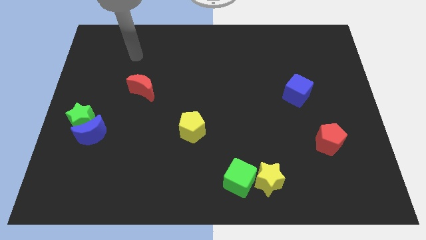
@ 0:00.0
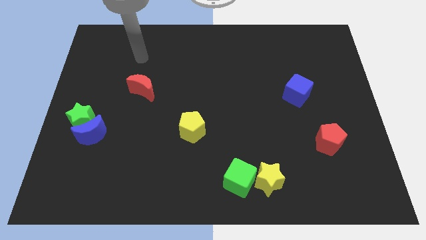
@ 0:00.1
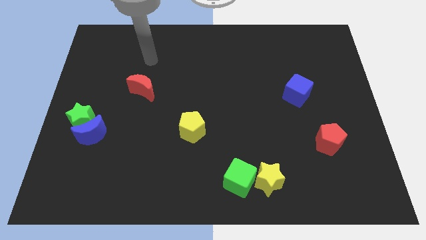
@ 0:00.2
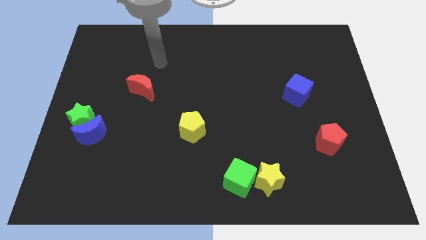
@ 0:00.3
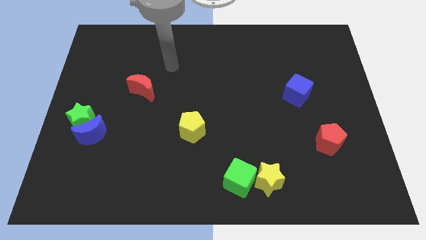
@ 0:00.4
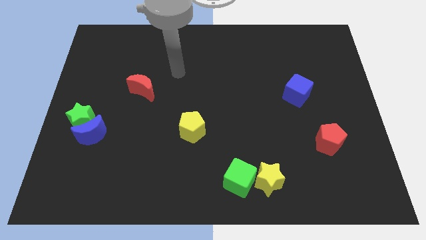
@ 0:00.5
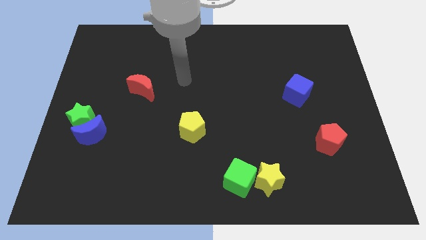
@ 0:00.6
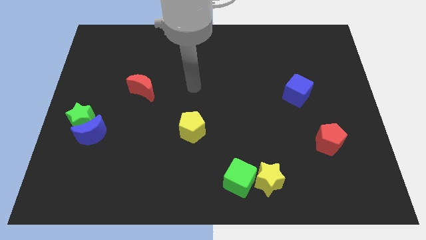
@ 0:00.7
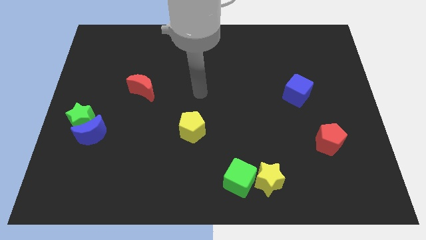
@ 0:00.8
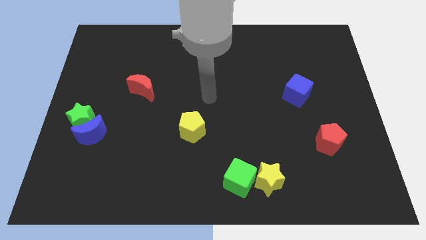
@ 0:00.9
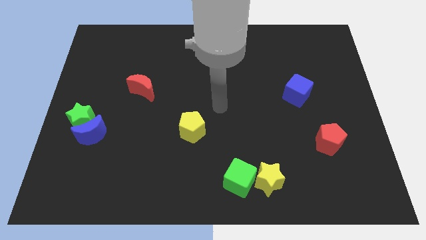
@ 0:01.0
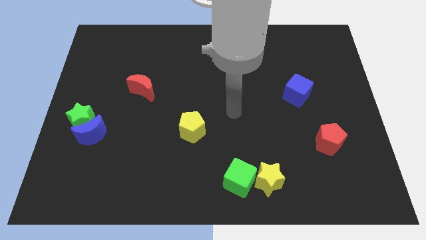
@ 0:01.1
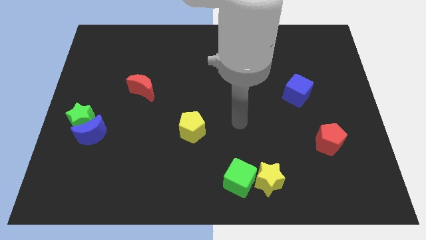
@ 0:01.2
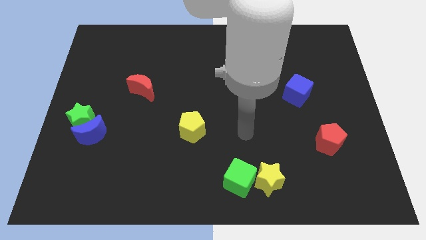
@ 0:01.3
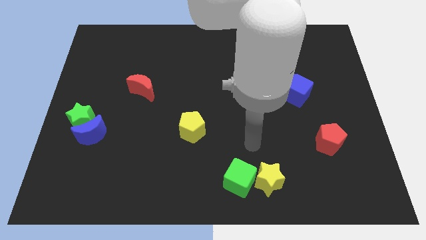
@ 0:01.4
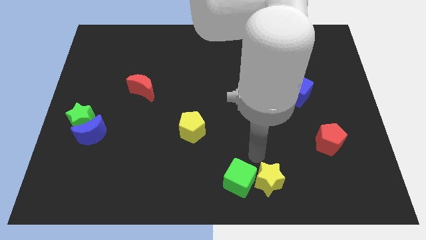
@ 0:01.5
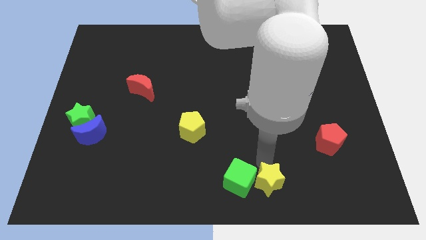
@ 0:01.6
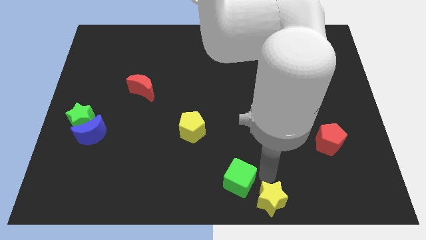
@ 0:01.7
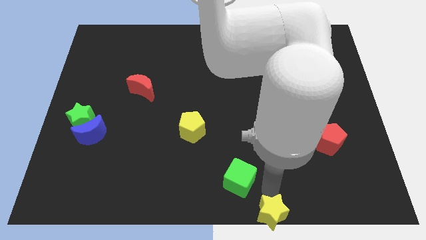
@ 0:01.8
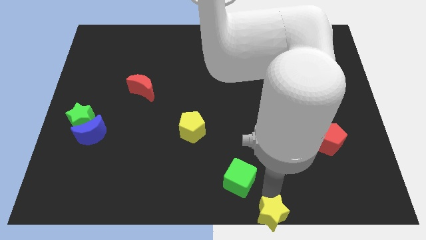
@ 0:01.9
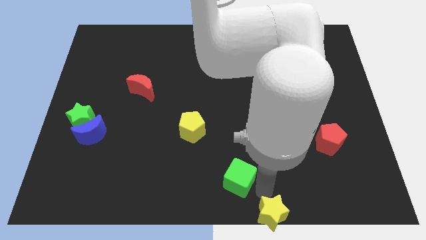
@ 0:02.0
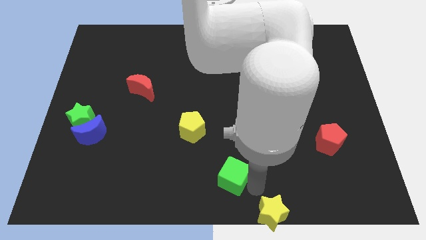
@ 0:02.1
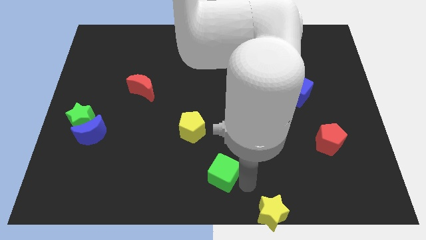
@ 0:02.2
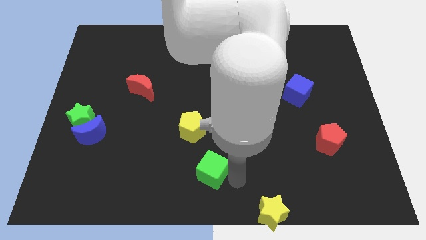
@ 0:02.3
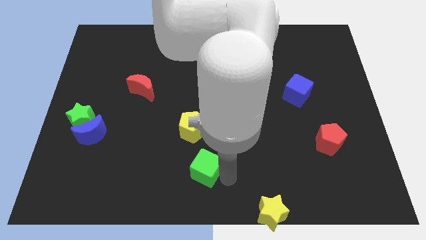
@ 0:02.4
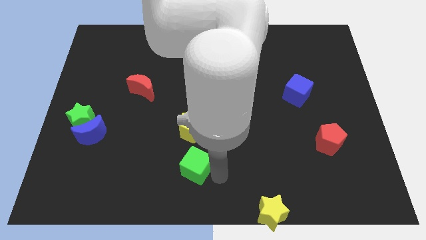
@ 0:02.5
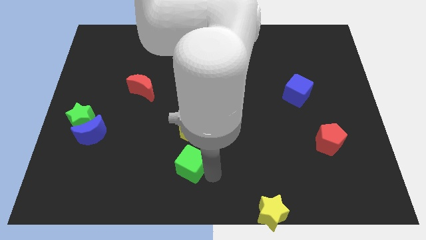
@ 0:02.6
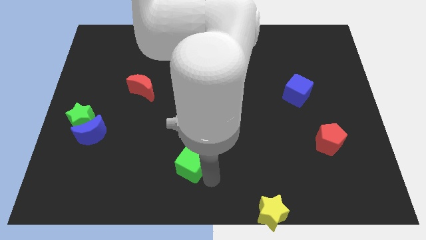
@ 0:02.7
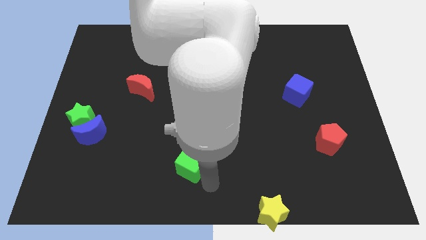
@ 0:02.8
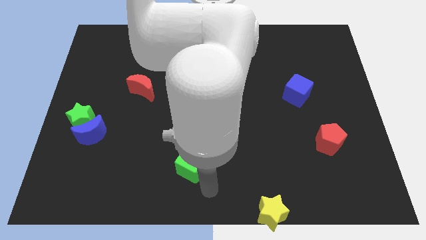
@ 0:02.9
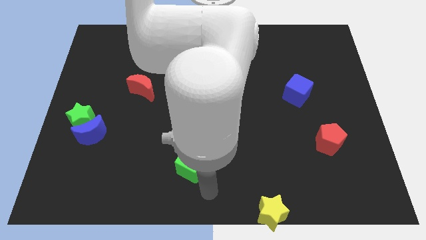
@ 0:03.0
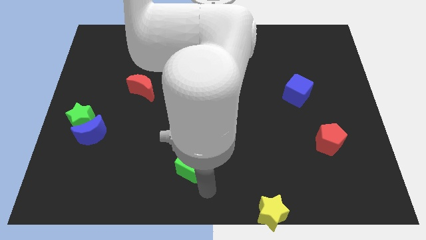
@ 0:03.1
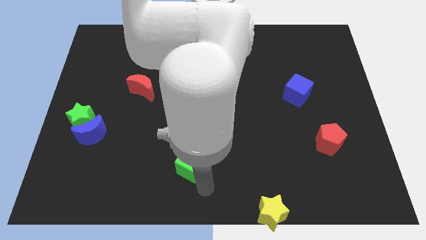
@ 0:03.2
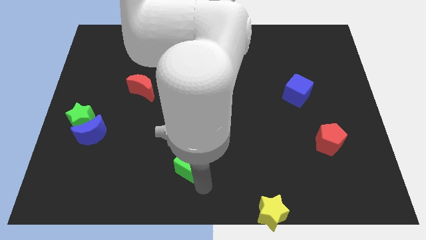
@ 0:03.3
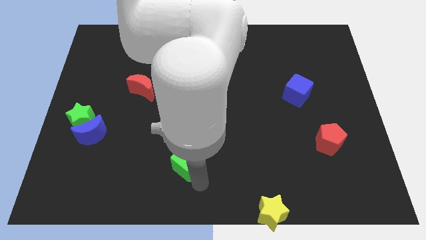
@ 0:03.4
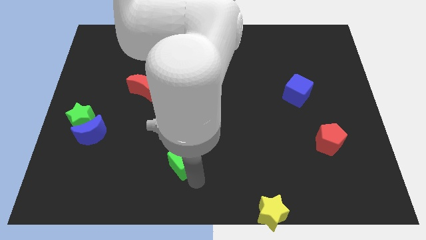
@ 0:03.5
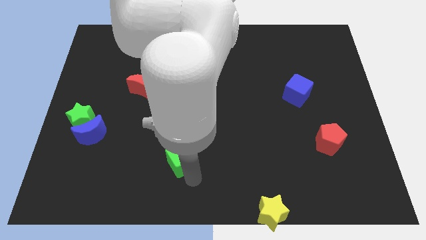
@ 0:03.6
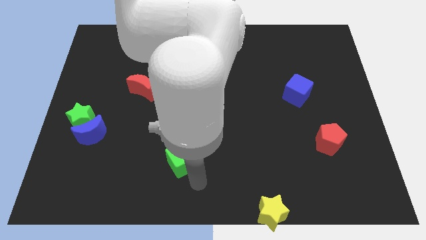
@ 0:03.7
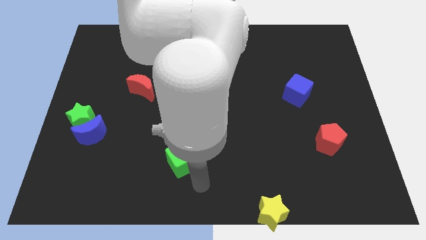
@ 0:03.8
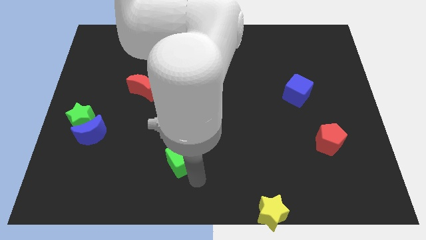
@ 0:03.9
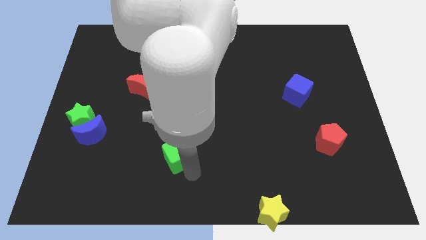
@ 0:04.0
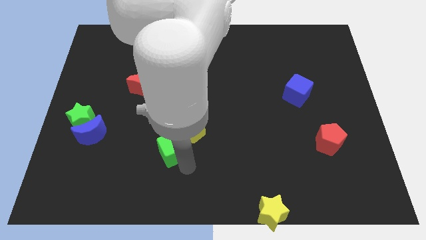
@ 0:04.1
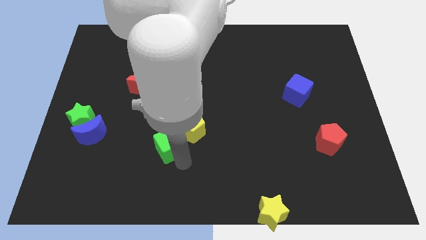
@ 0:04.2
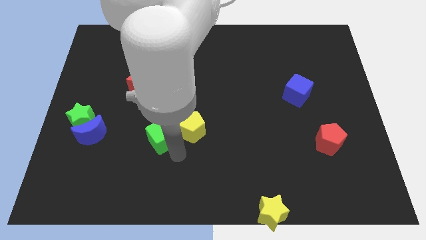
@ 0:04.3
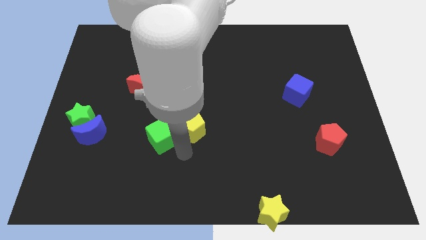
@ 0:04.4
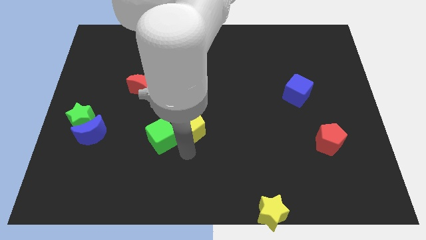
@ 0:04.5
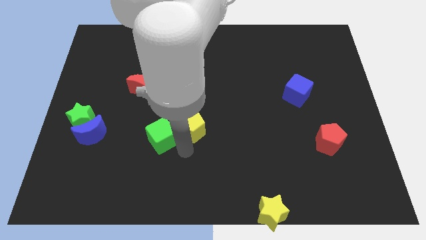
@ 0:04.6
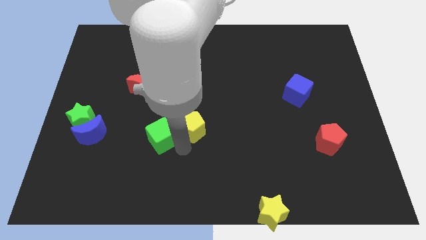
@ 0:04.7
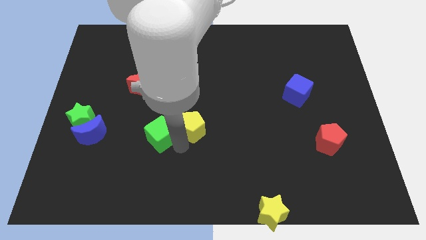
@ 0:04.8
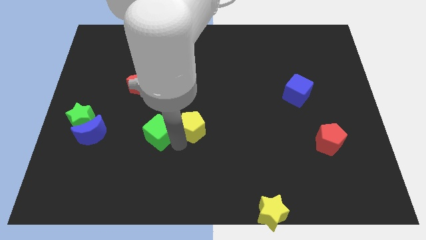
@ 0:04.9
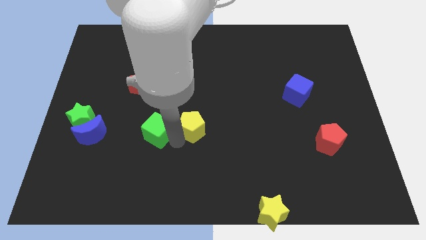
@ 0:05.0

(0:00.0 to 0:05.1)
push the green cube to the bottom of the red moon

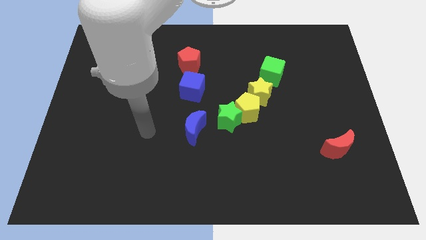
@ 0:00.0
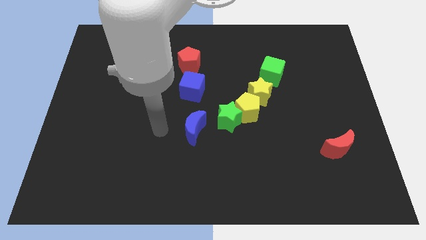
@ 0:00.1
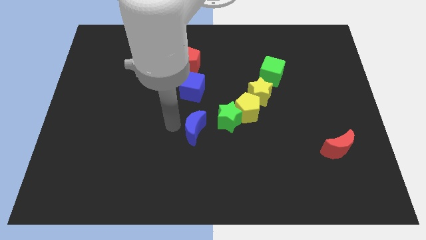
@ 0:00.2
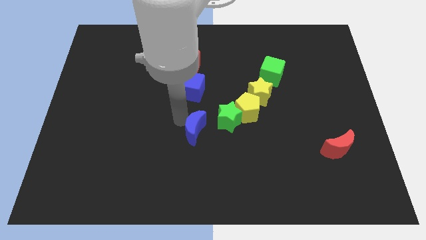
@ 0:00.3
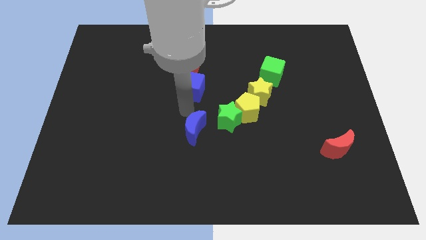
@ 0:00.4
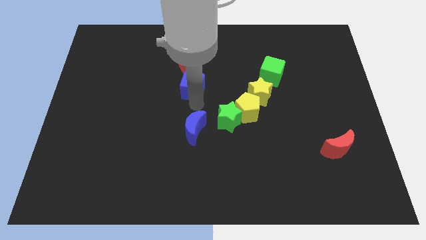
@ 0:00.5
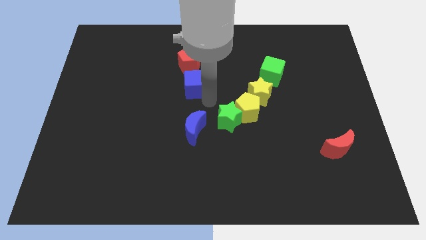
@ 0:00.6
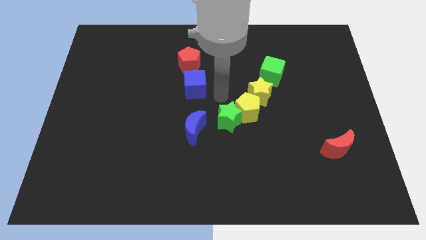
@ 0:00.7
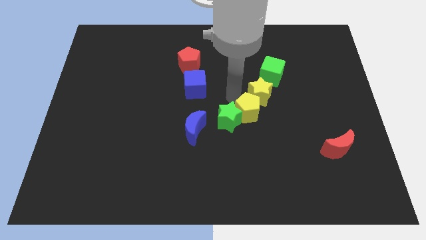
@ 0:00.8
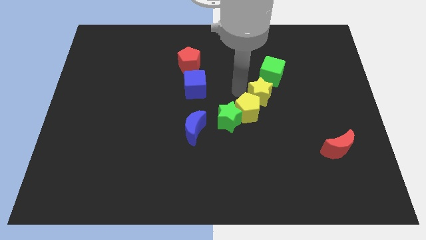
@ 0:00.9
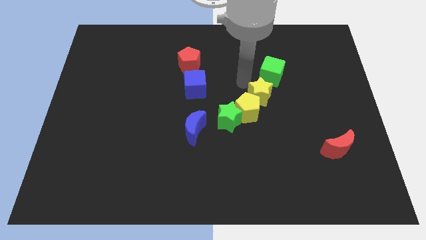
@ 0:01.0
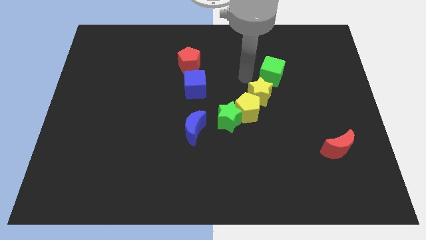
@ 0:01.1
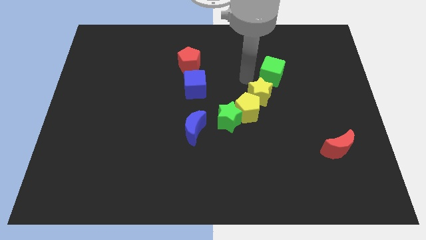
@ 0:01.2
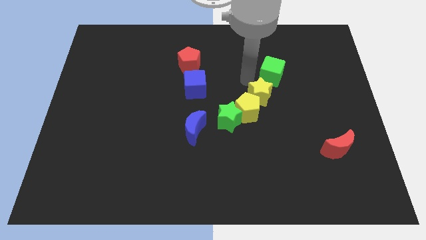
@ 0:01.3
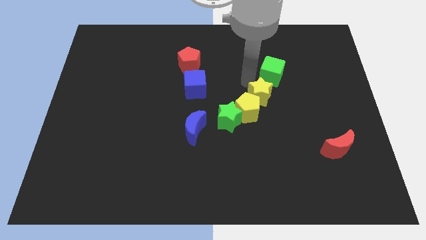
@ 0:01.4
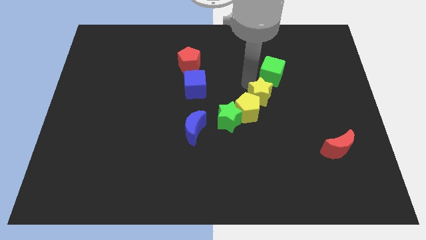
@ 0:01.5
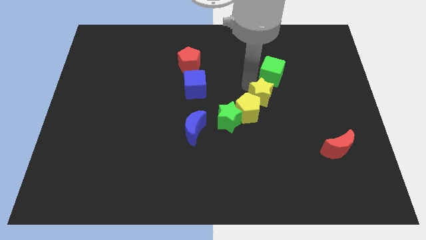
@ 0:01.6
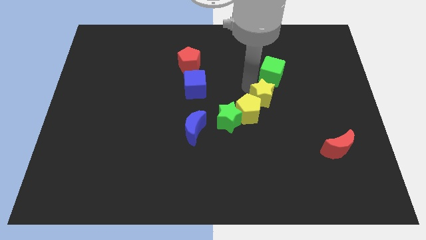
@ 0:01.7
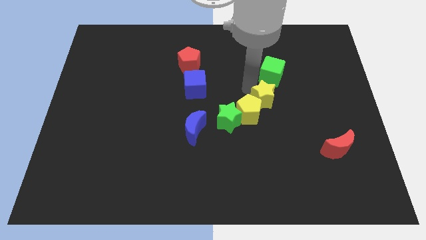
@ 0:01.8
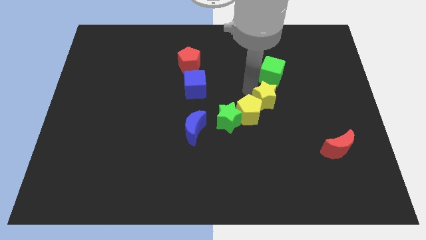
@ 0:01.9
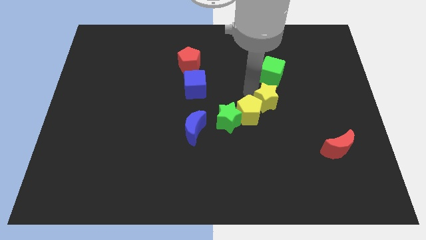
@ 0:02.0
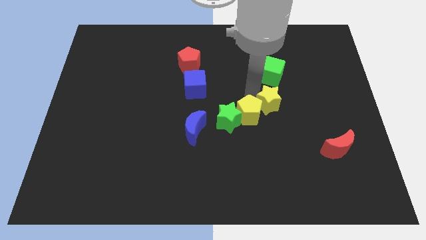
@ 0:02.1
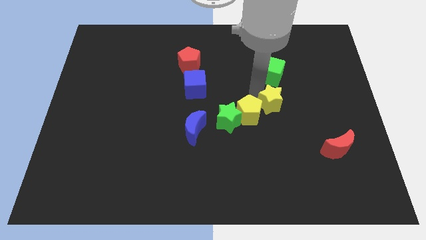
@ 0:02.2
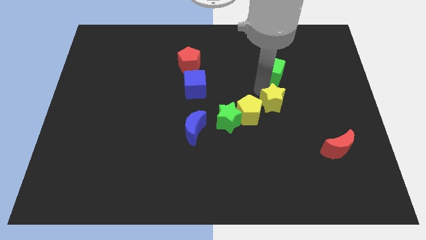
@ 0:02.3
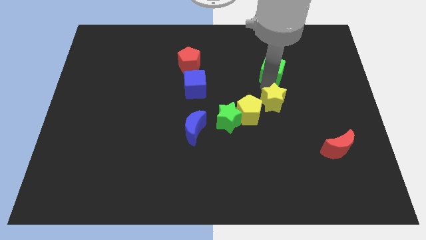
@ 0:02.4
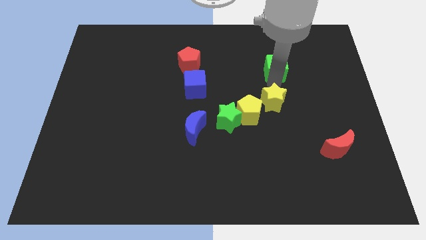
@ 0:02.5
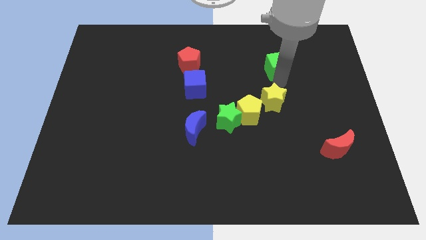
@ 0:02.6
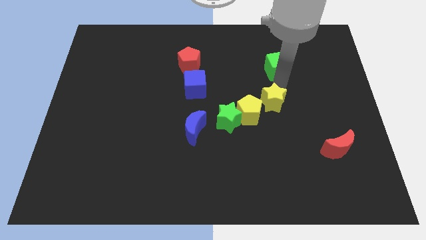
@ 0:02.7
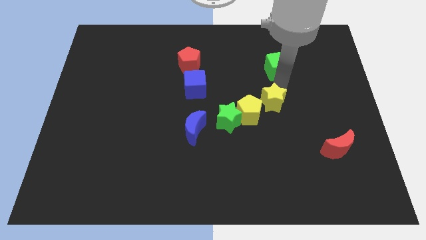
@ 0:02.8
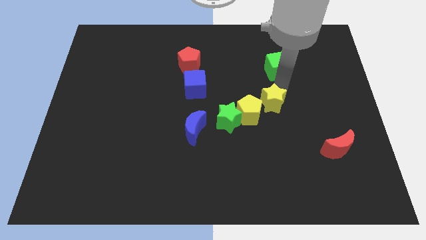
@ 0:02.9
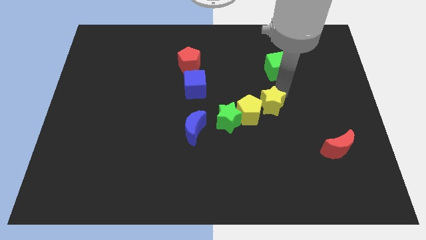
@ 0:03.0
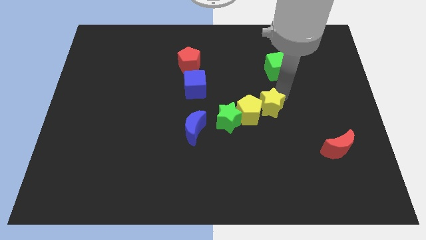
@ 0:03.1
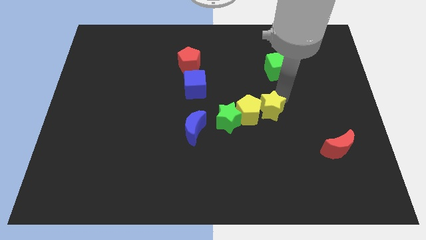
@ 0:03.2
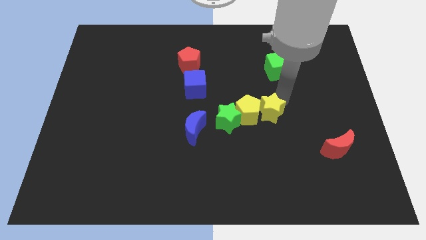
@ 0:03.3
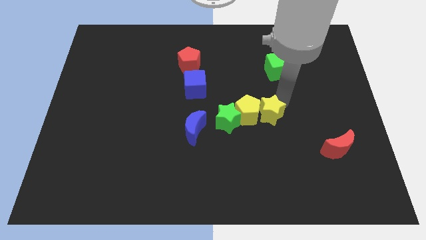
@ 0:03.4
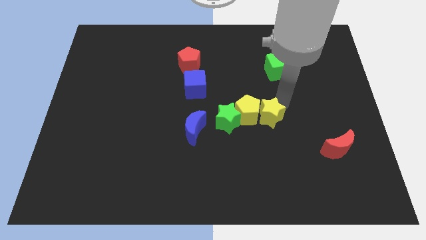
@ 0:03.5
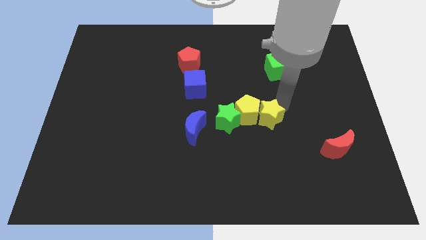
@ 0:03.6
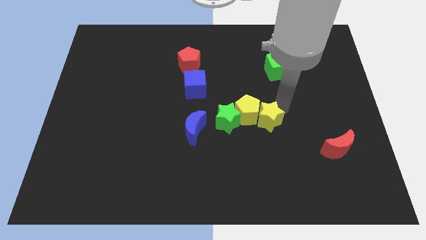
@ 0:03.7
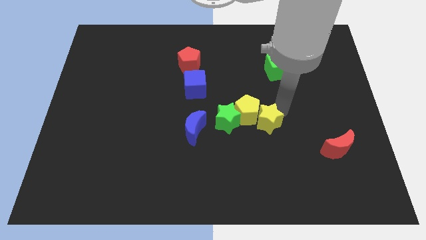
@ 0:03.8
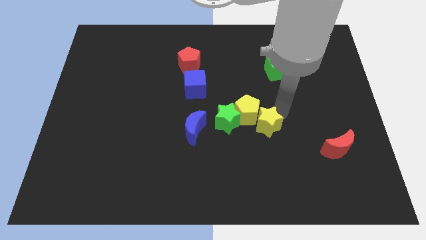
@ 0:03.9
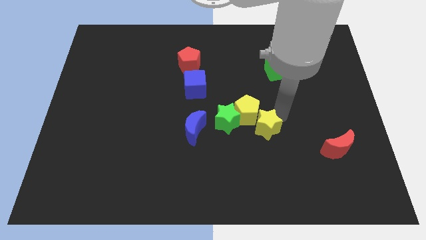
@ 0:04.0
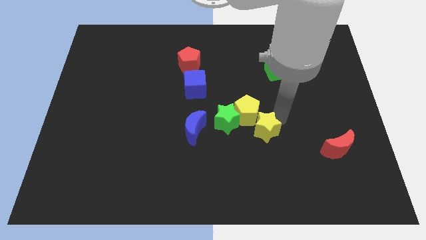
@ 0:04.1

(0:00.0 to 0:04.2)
push the yellow star diagonally down and to the right of the green star
